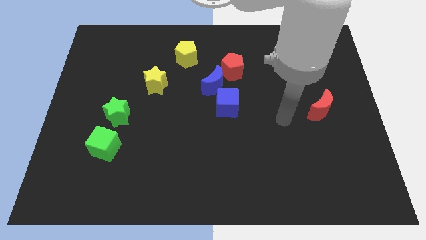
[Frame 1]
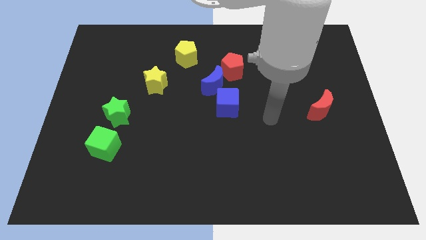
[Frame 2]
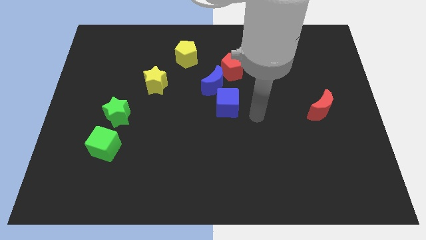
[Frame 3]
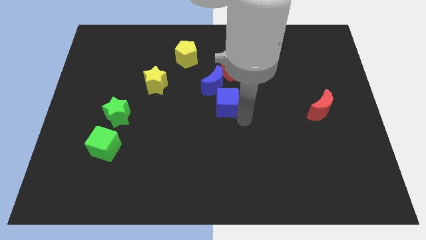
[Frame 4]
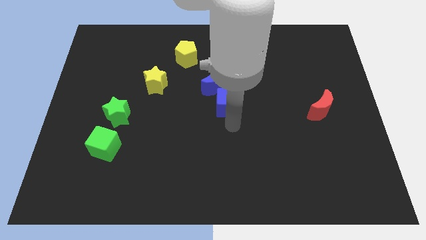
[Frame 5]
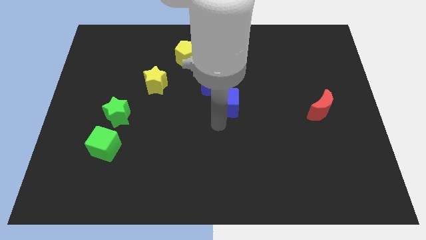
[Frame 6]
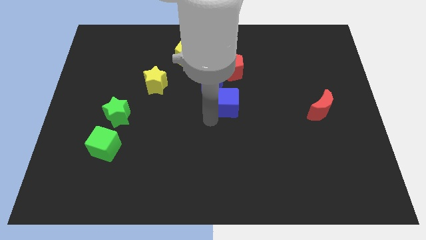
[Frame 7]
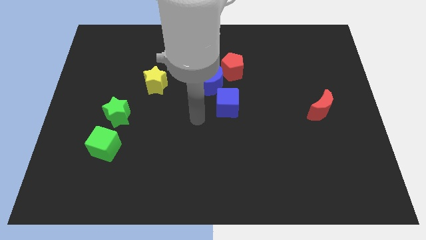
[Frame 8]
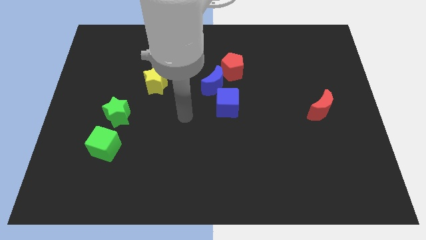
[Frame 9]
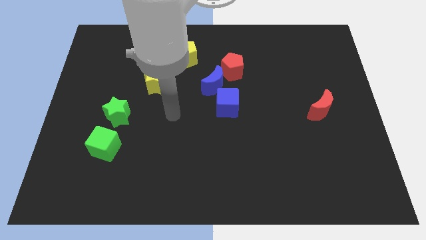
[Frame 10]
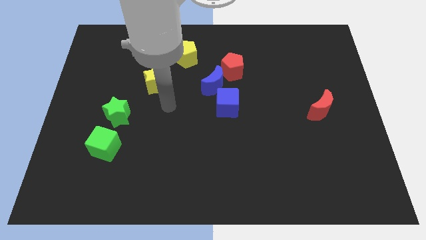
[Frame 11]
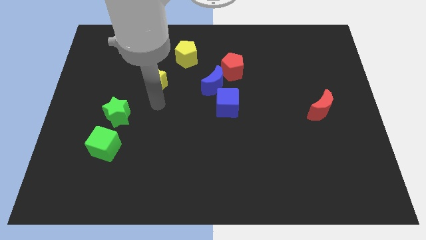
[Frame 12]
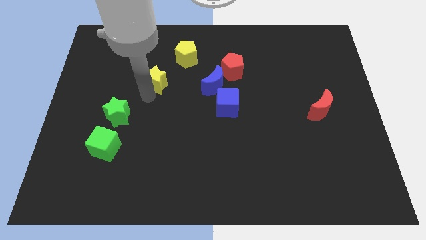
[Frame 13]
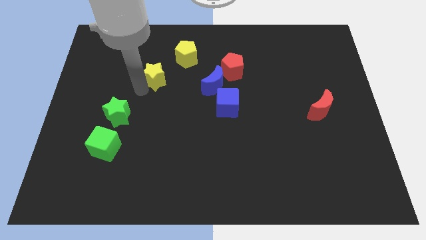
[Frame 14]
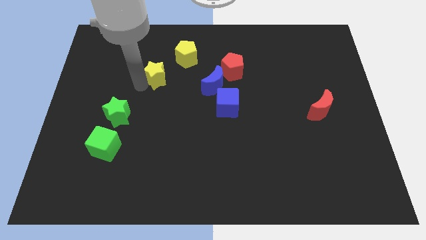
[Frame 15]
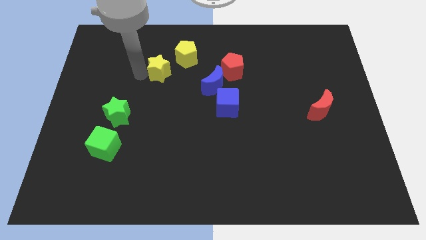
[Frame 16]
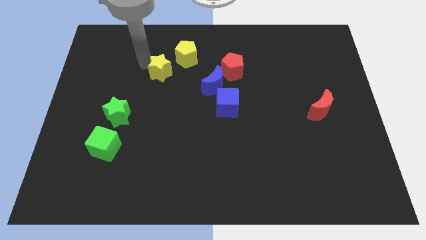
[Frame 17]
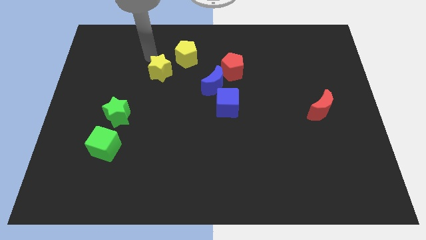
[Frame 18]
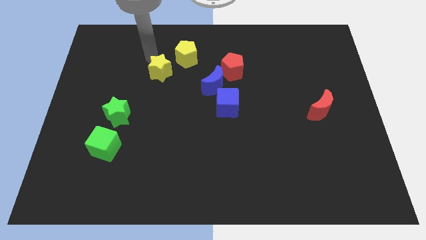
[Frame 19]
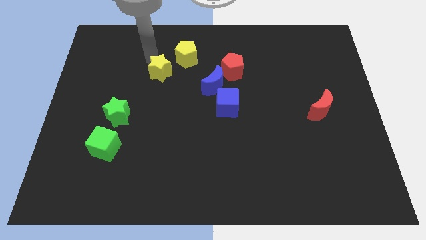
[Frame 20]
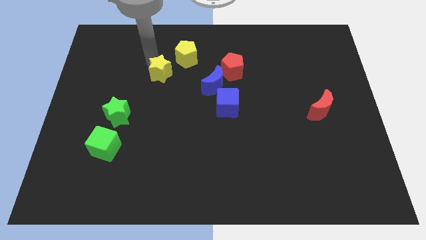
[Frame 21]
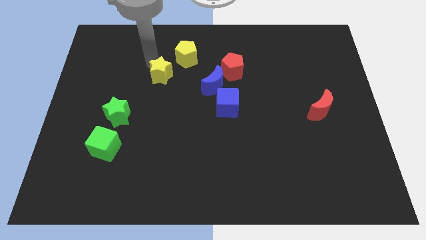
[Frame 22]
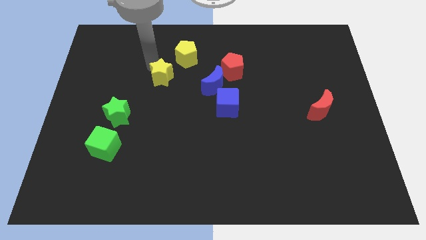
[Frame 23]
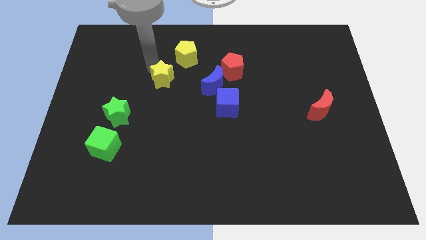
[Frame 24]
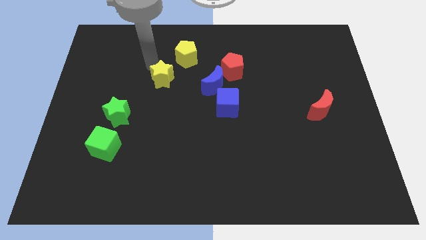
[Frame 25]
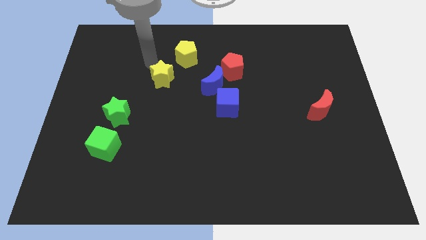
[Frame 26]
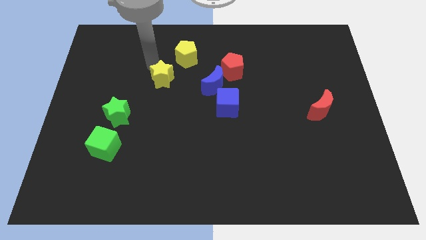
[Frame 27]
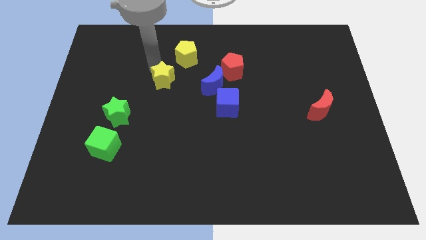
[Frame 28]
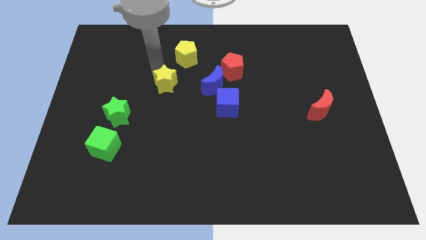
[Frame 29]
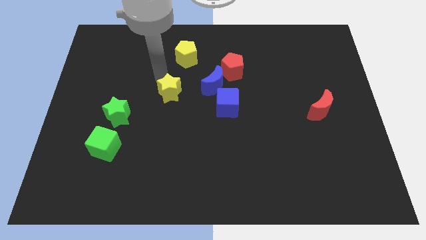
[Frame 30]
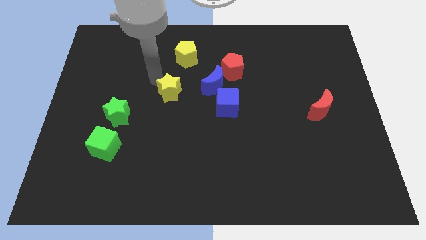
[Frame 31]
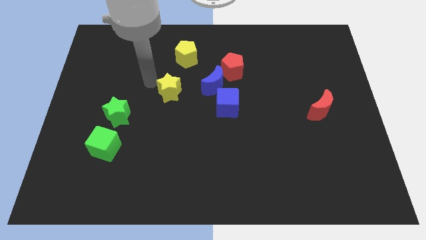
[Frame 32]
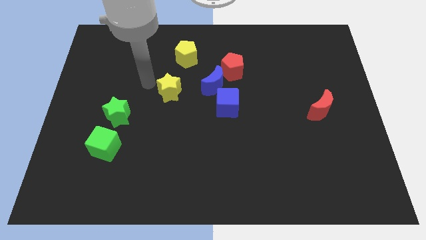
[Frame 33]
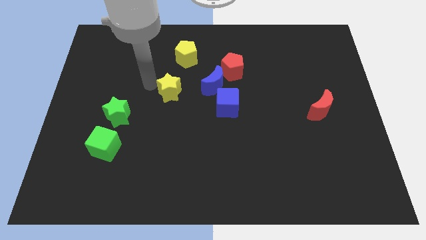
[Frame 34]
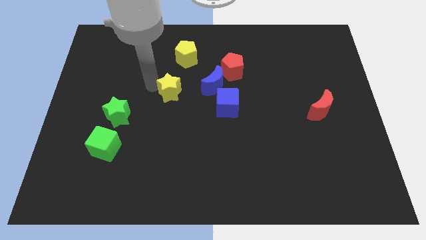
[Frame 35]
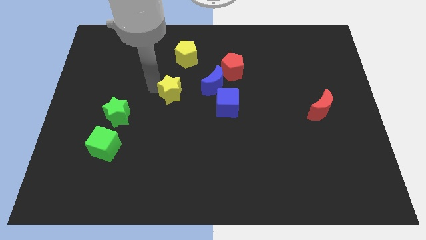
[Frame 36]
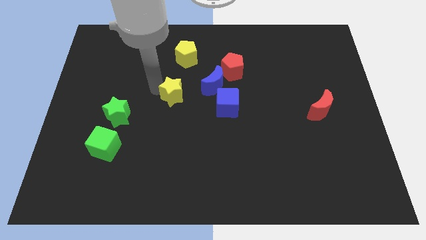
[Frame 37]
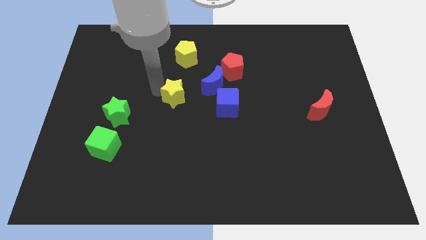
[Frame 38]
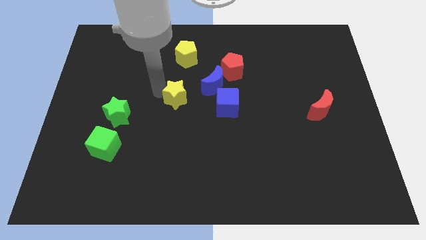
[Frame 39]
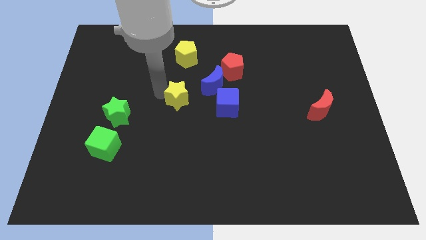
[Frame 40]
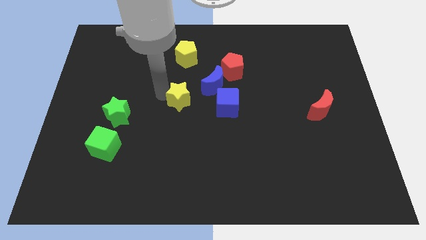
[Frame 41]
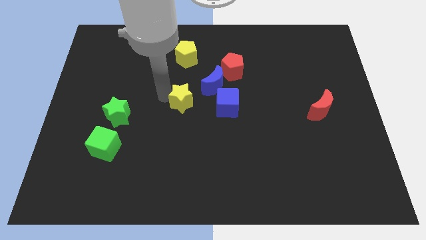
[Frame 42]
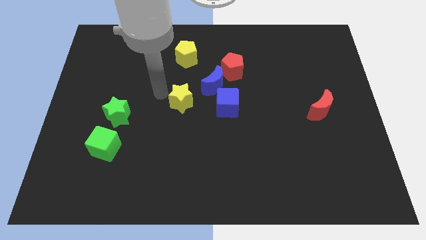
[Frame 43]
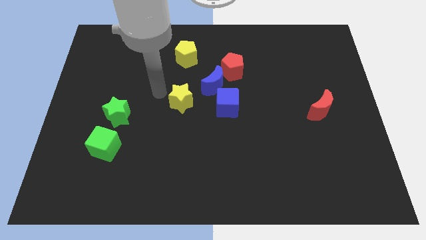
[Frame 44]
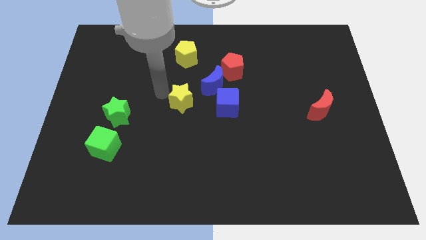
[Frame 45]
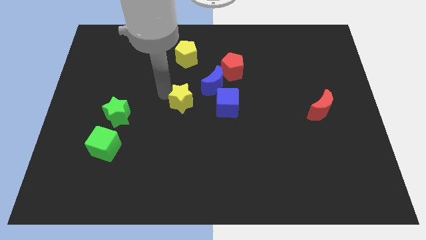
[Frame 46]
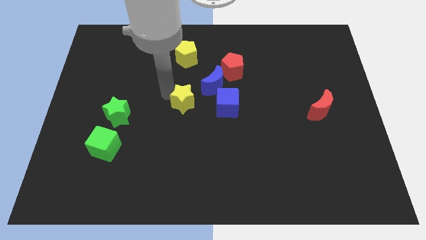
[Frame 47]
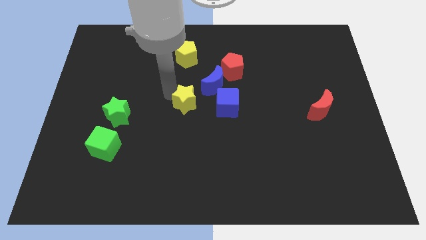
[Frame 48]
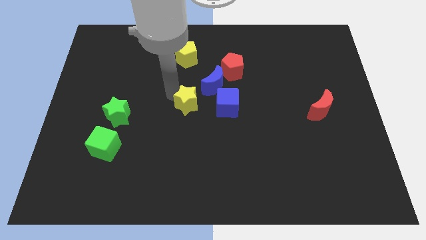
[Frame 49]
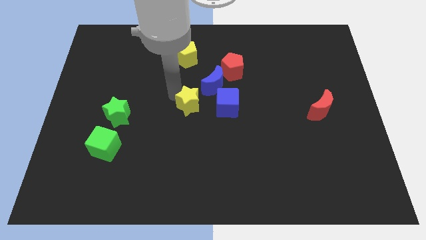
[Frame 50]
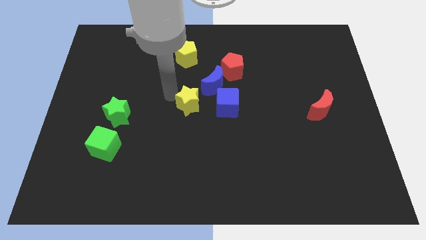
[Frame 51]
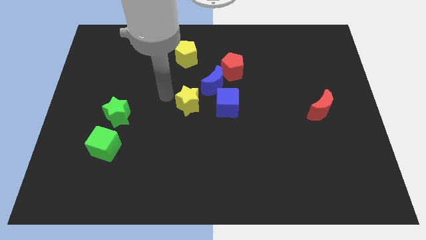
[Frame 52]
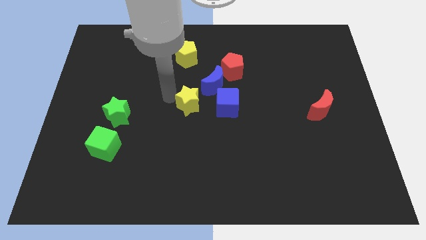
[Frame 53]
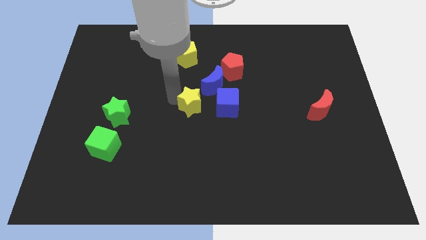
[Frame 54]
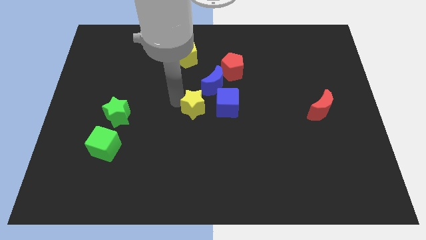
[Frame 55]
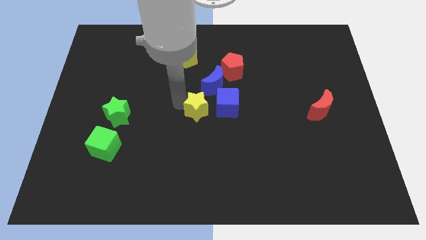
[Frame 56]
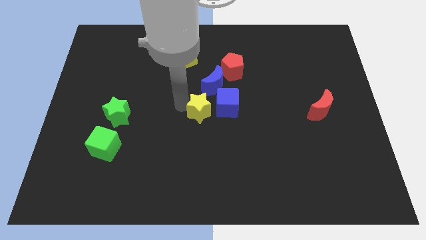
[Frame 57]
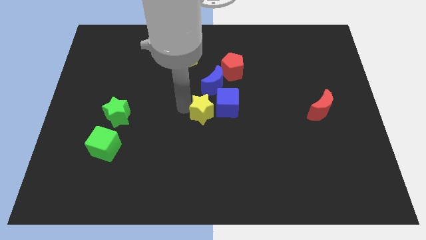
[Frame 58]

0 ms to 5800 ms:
slide the yellow star to the blue cube

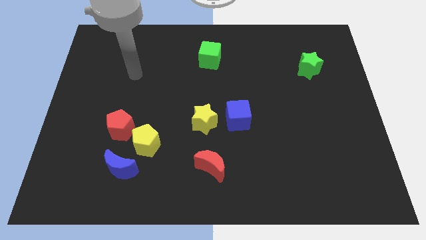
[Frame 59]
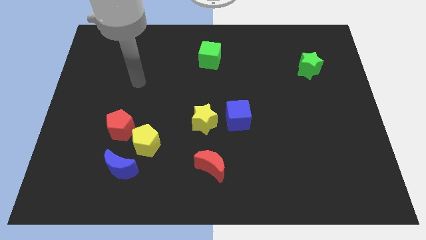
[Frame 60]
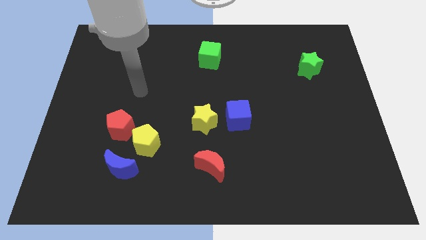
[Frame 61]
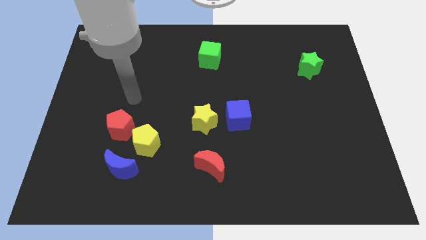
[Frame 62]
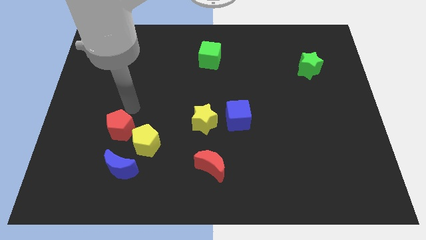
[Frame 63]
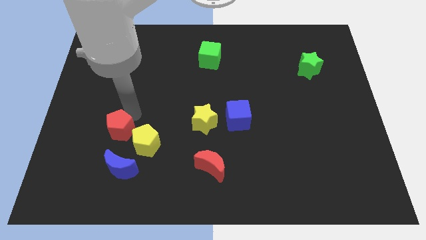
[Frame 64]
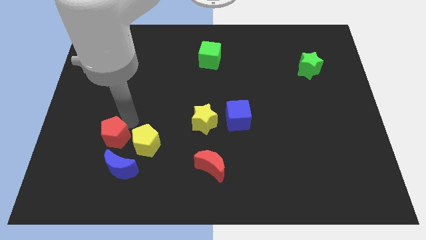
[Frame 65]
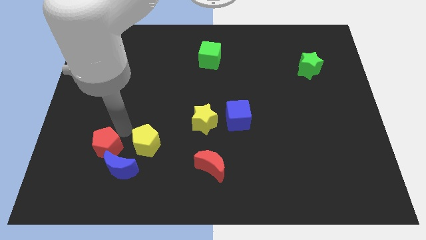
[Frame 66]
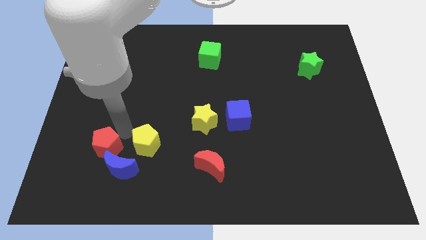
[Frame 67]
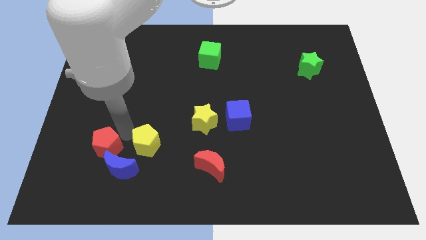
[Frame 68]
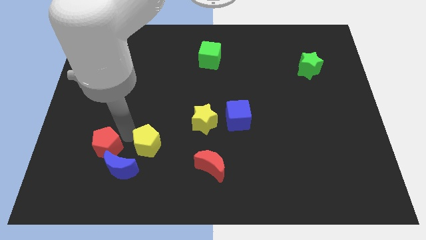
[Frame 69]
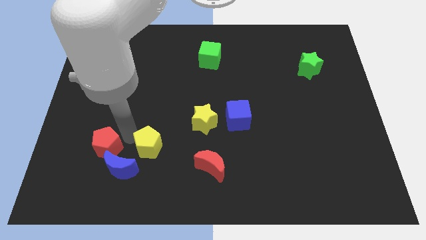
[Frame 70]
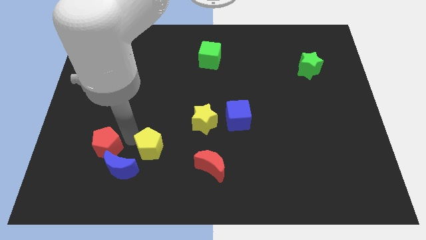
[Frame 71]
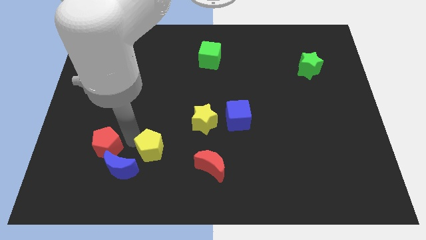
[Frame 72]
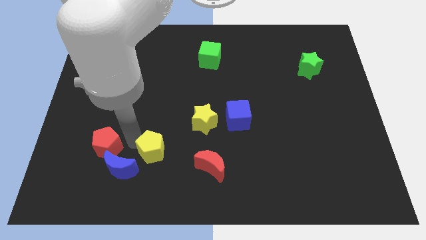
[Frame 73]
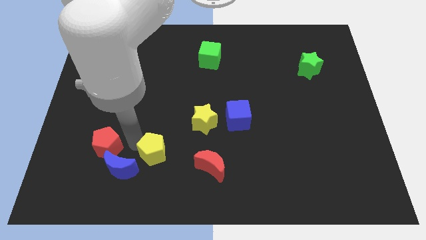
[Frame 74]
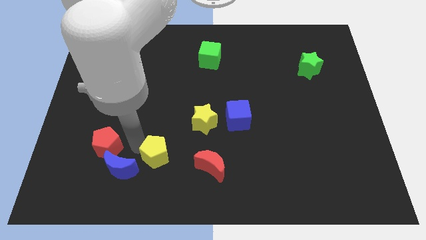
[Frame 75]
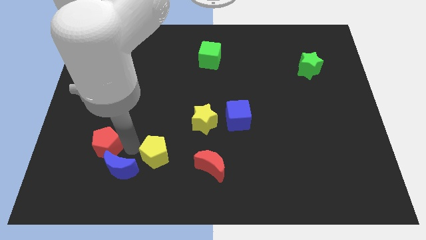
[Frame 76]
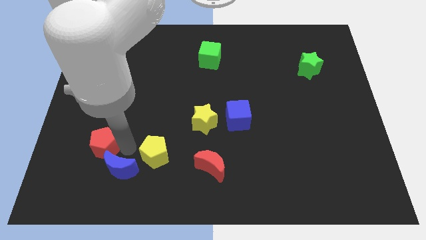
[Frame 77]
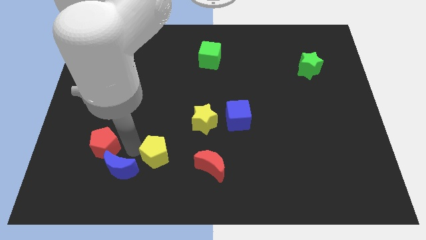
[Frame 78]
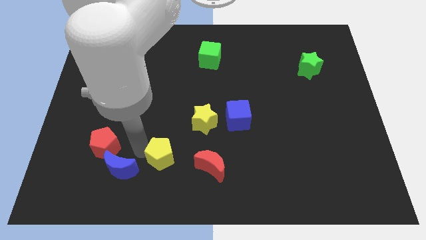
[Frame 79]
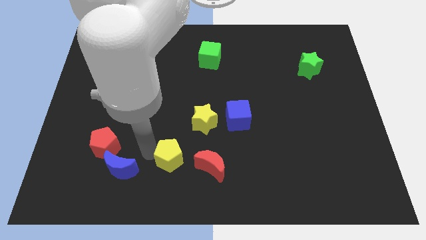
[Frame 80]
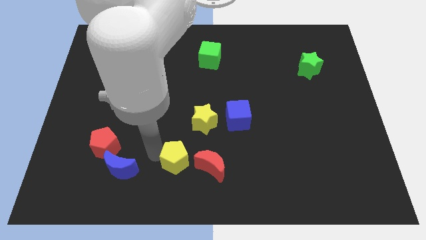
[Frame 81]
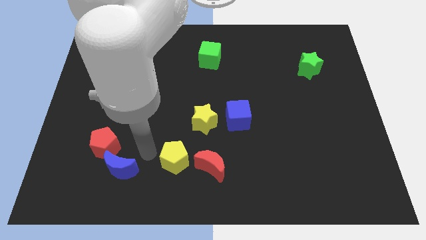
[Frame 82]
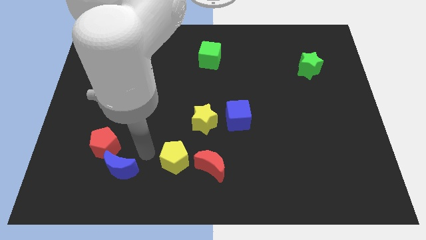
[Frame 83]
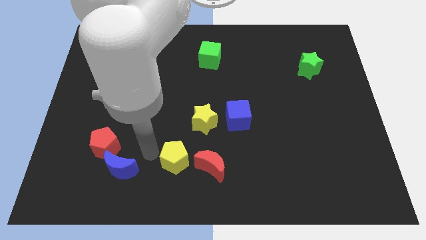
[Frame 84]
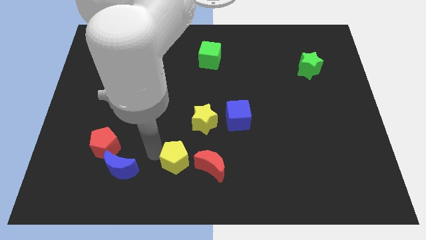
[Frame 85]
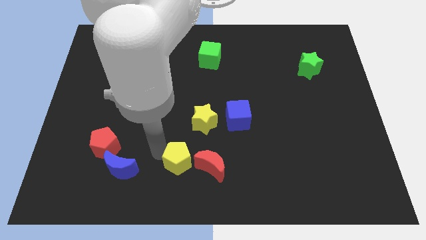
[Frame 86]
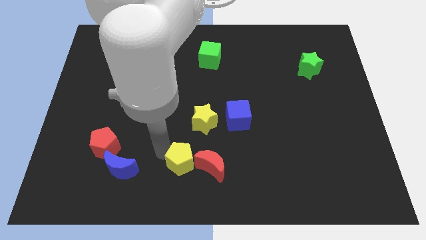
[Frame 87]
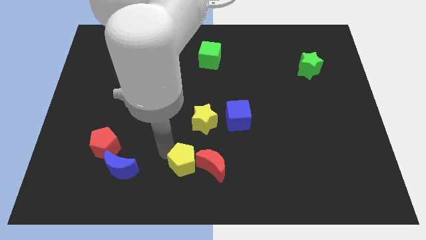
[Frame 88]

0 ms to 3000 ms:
slide the yellow pentagon next to the red moon
